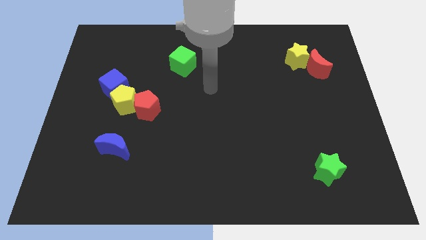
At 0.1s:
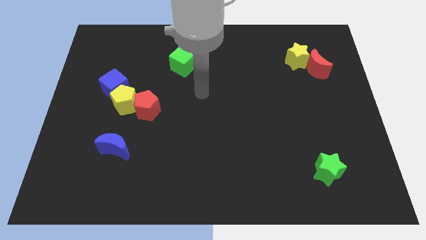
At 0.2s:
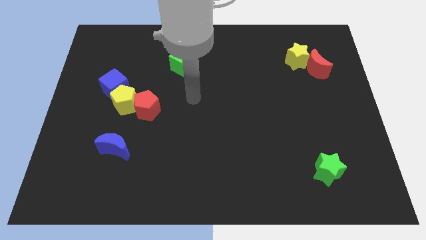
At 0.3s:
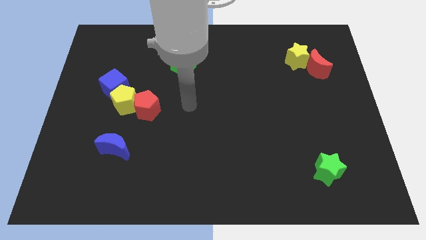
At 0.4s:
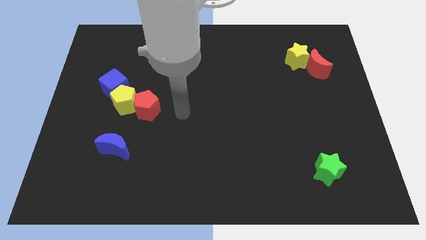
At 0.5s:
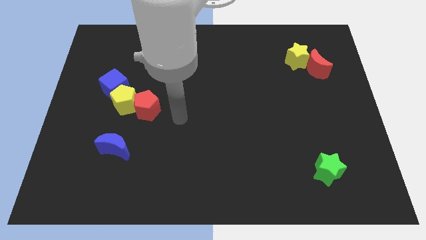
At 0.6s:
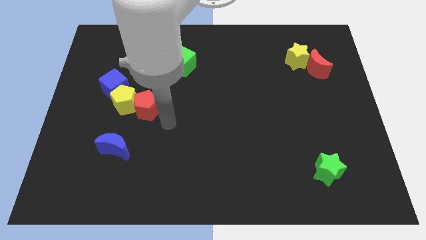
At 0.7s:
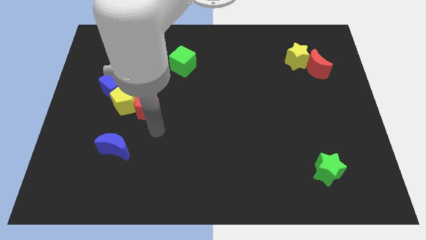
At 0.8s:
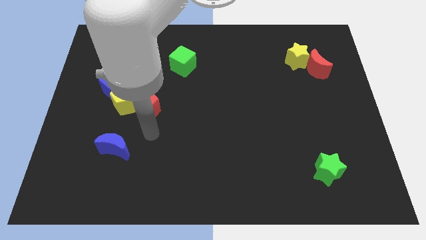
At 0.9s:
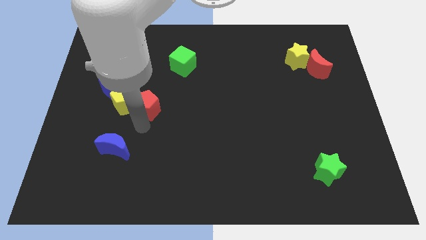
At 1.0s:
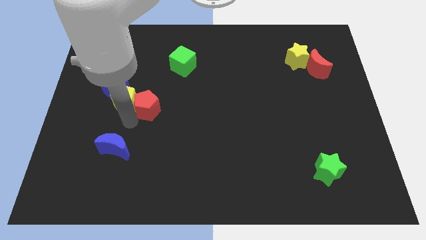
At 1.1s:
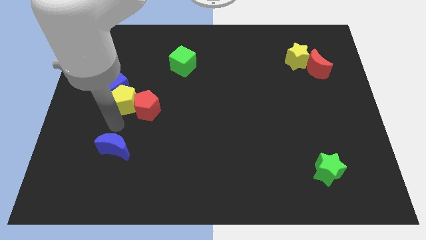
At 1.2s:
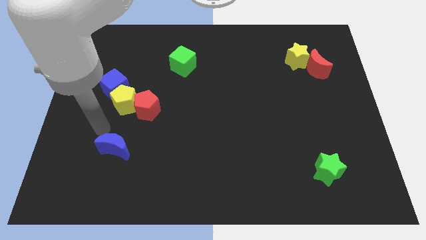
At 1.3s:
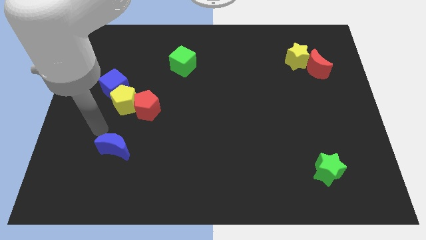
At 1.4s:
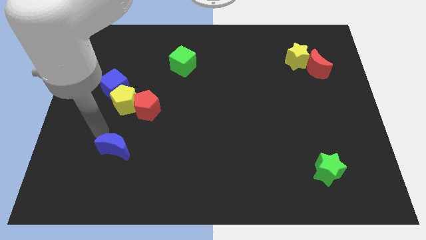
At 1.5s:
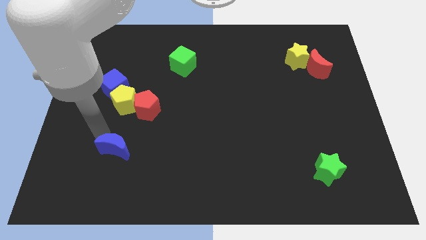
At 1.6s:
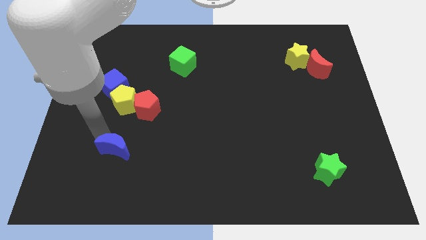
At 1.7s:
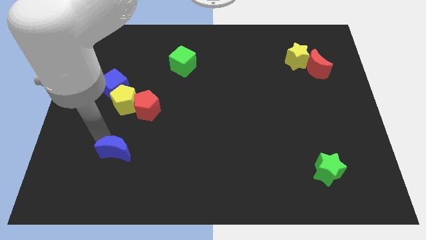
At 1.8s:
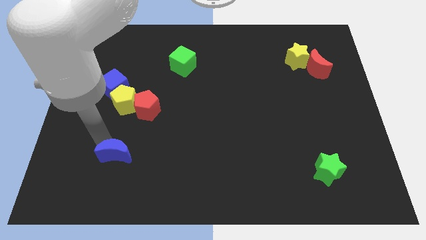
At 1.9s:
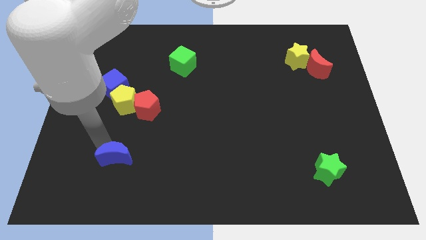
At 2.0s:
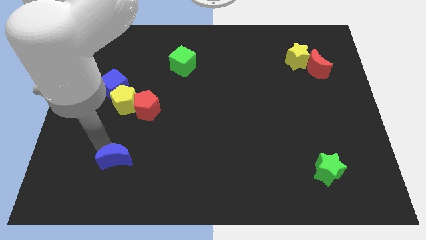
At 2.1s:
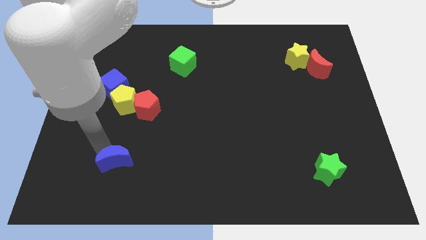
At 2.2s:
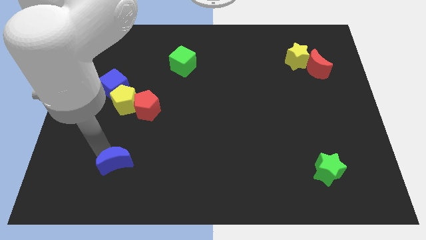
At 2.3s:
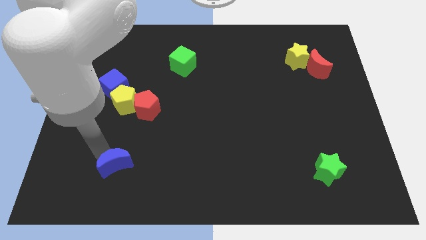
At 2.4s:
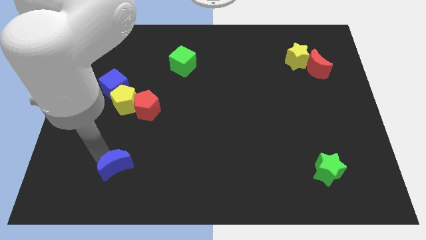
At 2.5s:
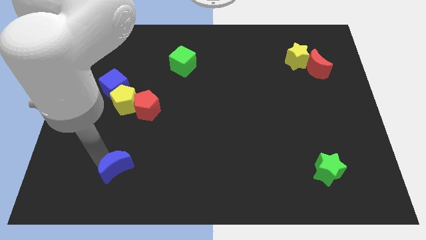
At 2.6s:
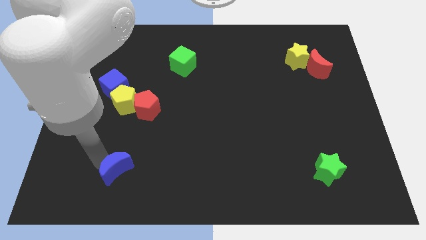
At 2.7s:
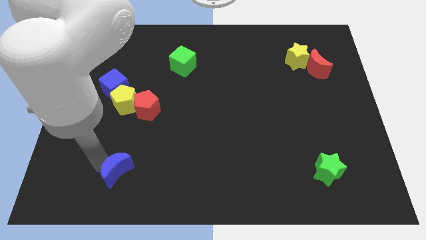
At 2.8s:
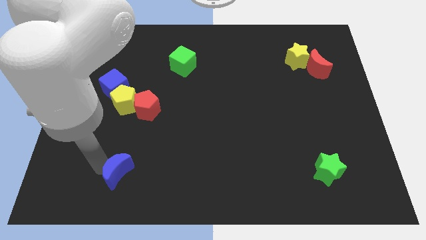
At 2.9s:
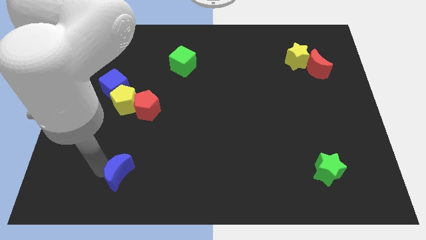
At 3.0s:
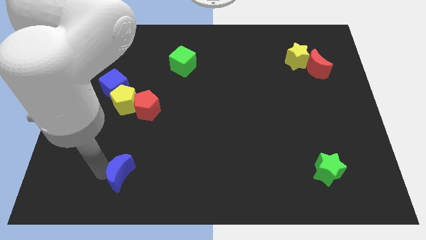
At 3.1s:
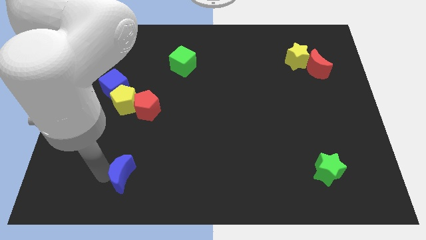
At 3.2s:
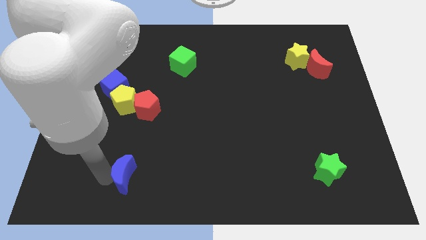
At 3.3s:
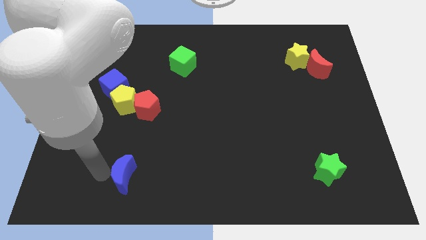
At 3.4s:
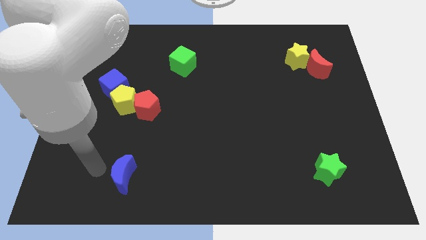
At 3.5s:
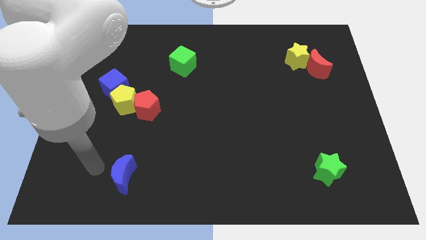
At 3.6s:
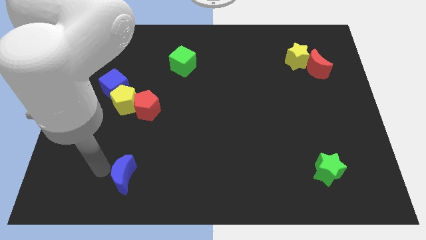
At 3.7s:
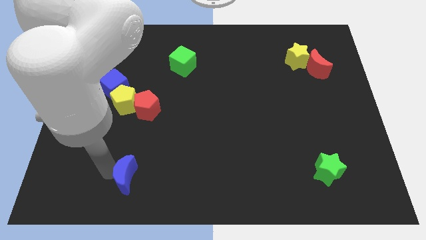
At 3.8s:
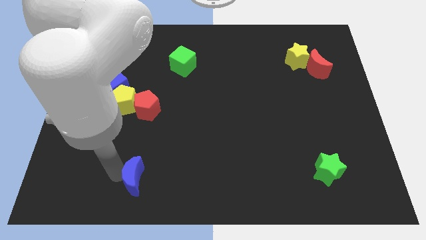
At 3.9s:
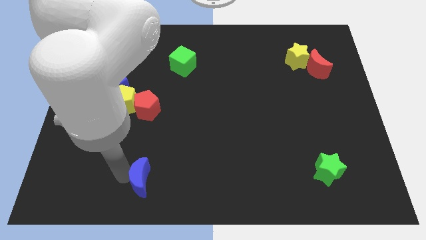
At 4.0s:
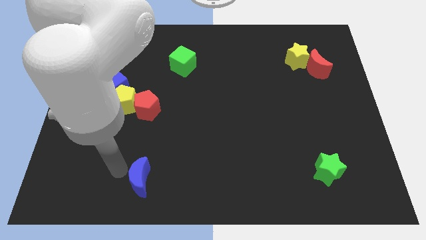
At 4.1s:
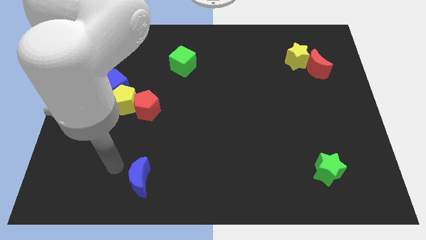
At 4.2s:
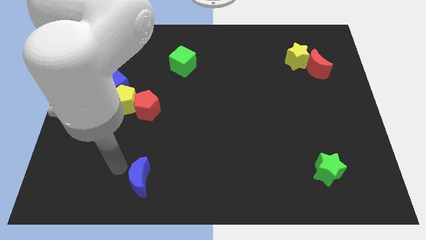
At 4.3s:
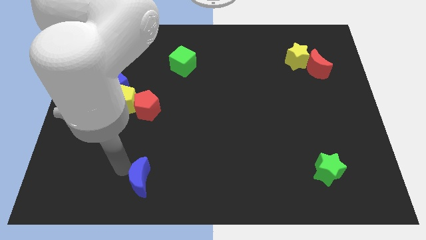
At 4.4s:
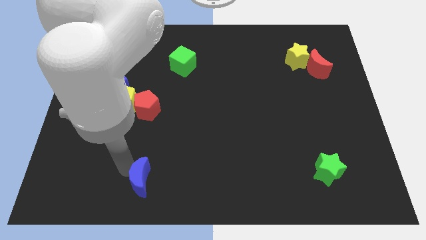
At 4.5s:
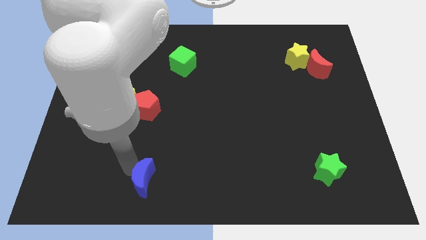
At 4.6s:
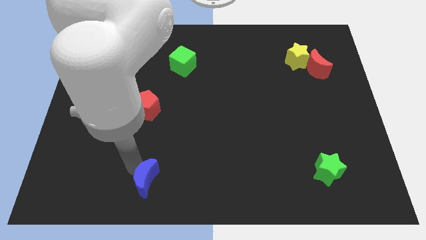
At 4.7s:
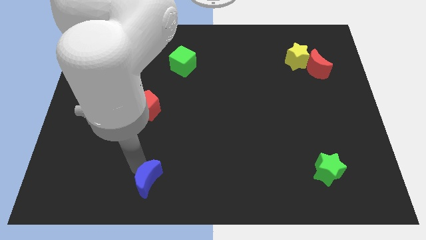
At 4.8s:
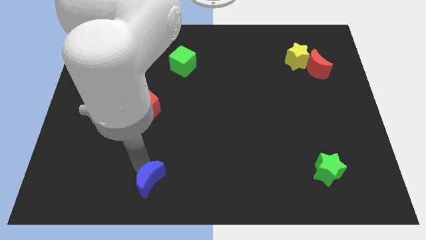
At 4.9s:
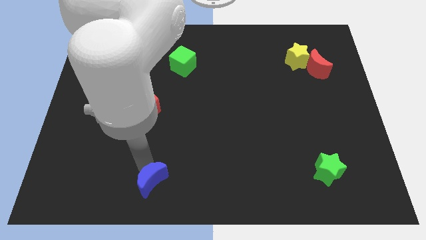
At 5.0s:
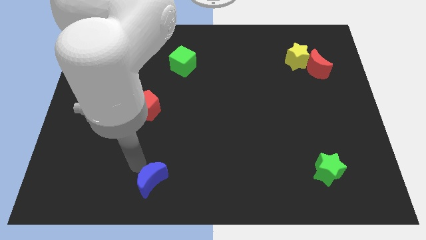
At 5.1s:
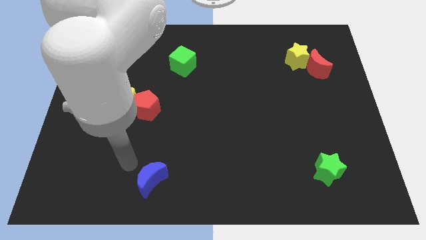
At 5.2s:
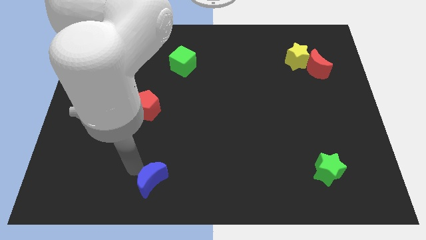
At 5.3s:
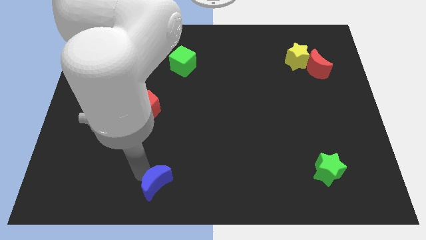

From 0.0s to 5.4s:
put the blue moon to the bottom
